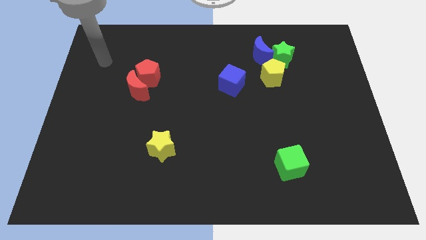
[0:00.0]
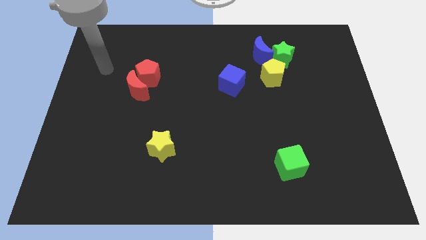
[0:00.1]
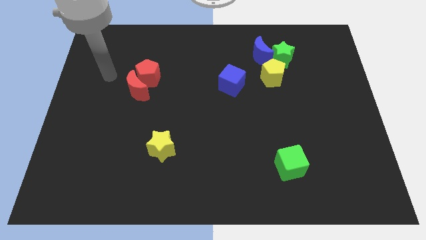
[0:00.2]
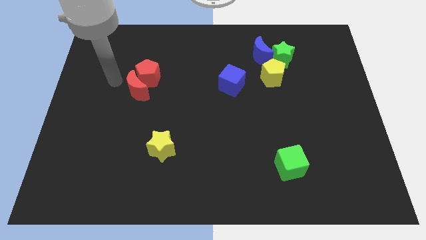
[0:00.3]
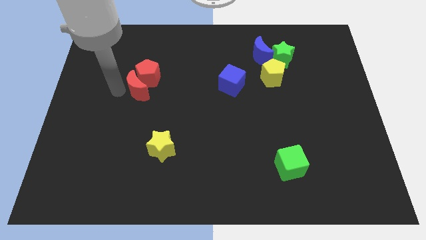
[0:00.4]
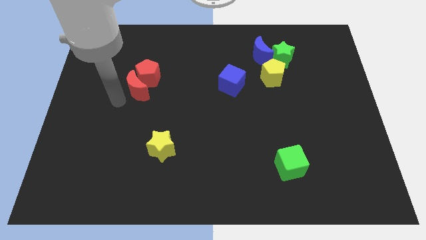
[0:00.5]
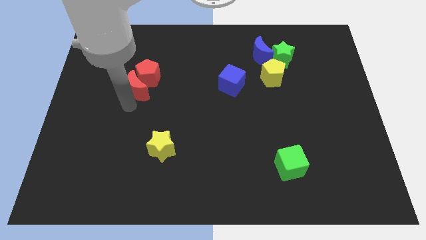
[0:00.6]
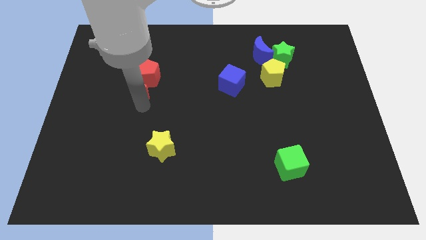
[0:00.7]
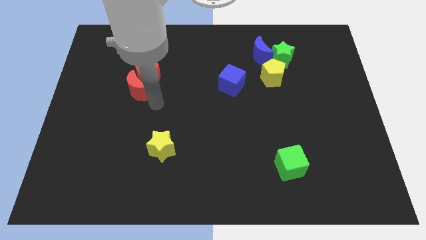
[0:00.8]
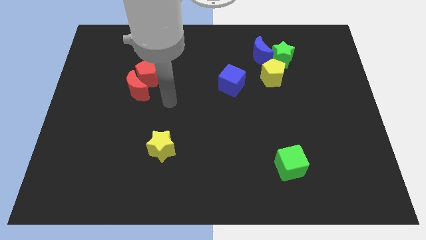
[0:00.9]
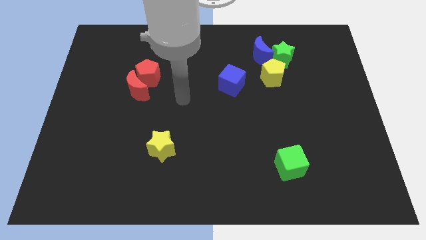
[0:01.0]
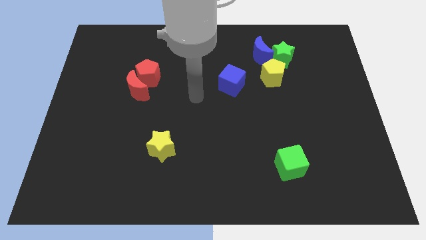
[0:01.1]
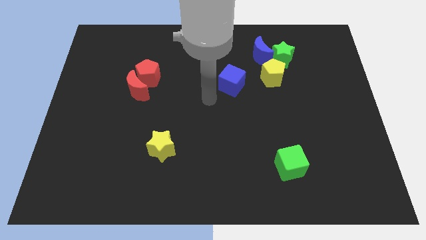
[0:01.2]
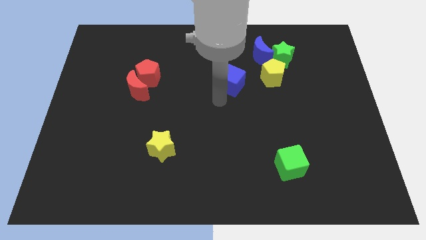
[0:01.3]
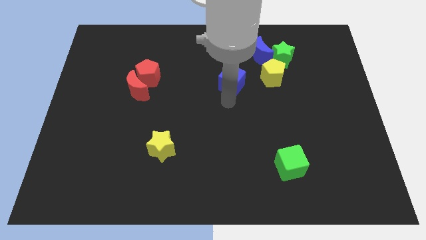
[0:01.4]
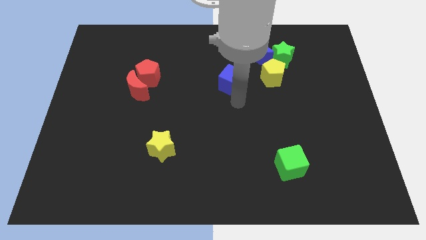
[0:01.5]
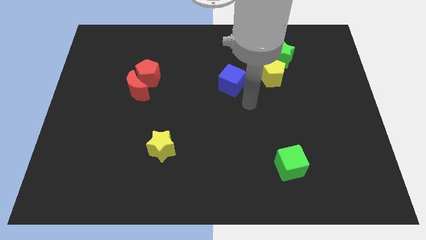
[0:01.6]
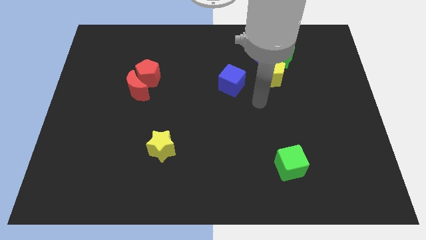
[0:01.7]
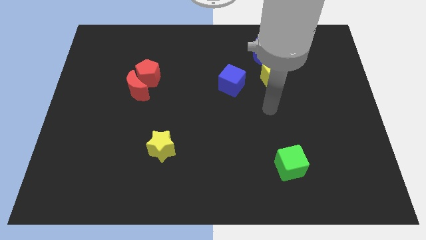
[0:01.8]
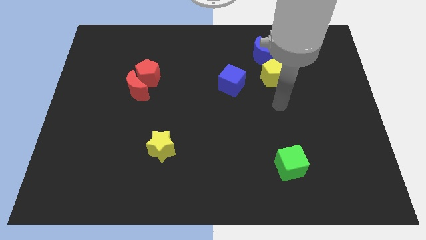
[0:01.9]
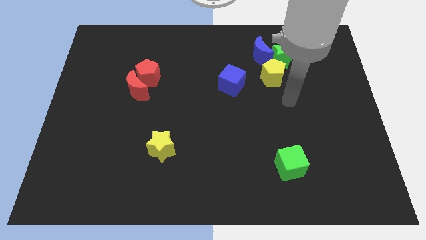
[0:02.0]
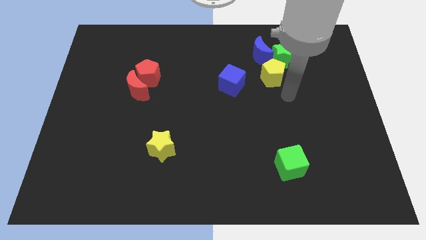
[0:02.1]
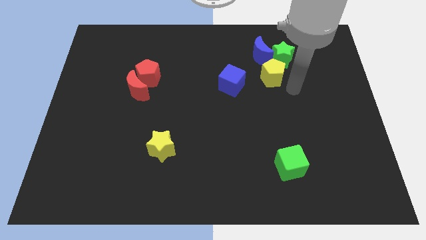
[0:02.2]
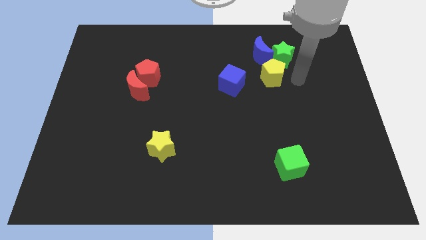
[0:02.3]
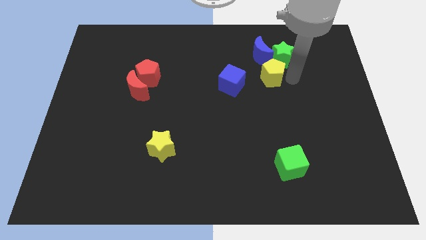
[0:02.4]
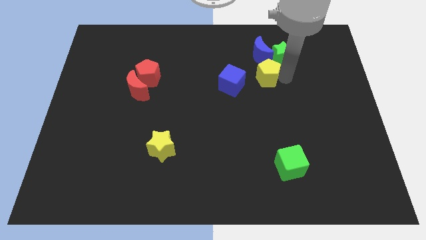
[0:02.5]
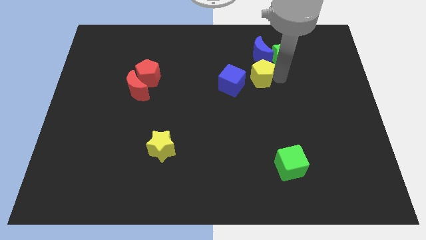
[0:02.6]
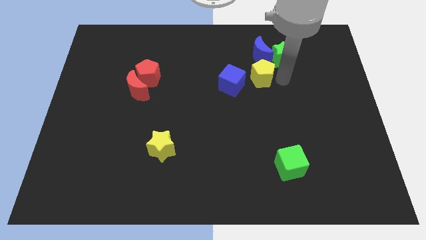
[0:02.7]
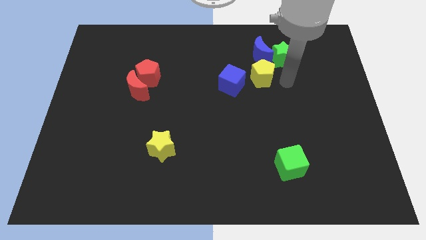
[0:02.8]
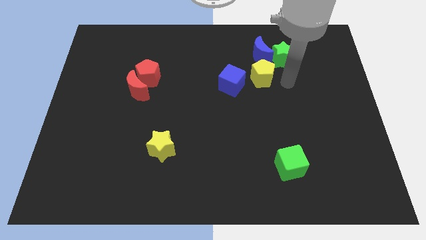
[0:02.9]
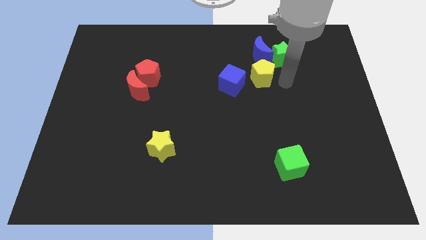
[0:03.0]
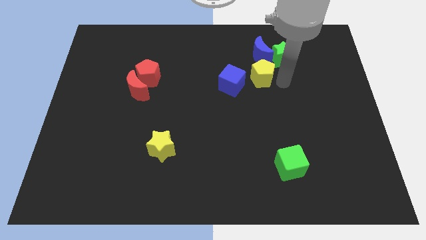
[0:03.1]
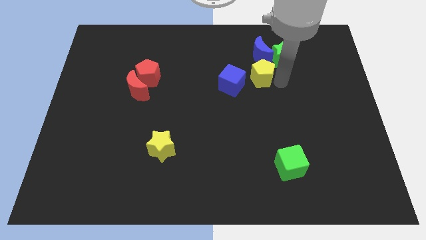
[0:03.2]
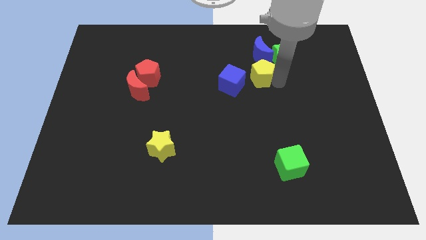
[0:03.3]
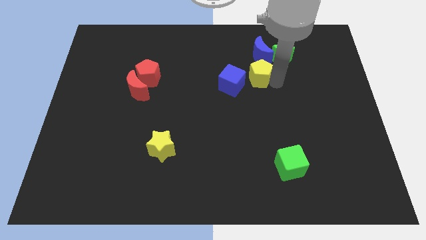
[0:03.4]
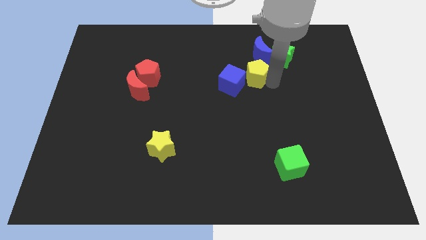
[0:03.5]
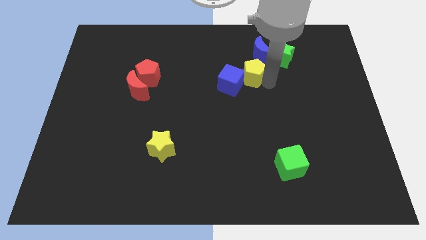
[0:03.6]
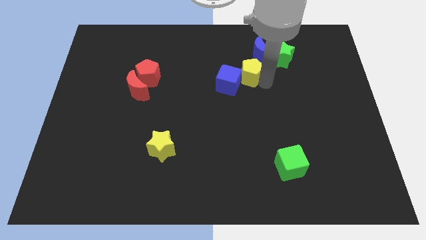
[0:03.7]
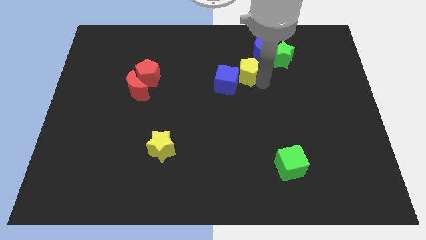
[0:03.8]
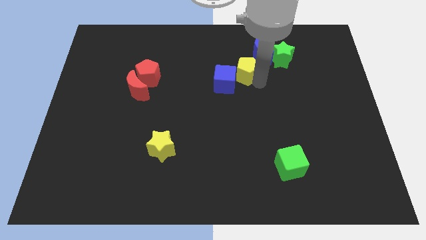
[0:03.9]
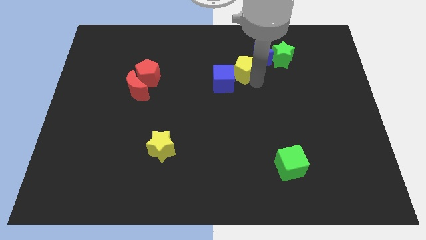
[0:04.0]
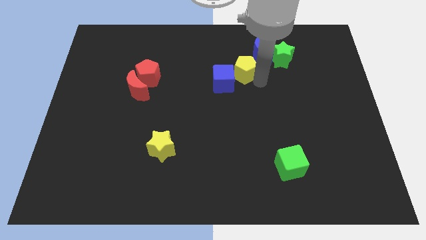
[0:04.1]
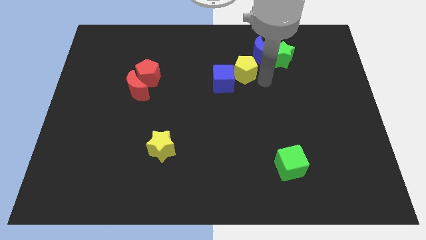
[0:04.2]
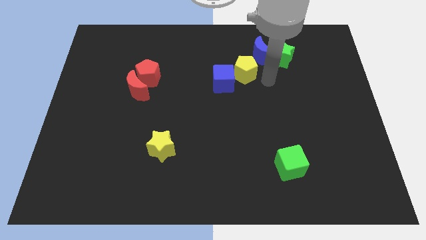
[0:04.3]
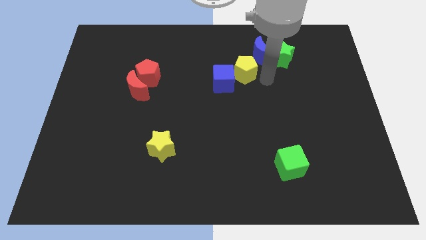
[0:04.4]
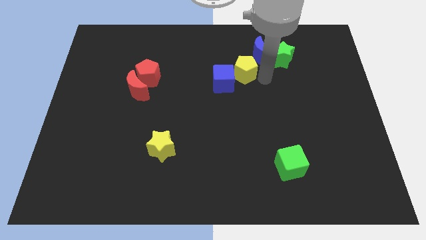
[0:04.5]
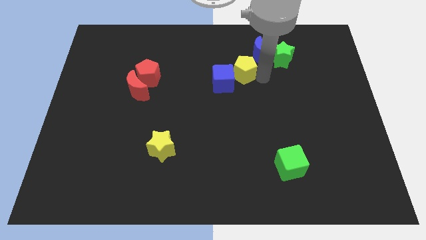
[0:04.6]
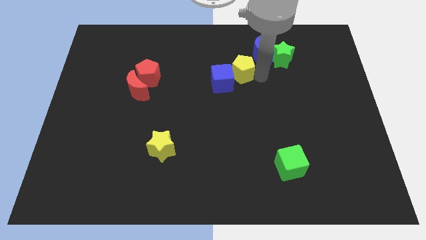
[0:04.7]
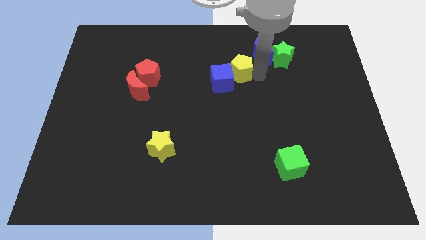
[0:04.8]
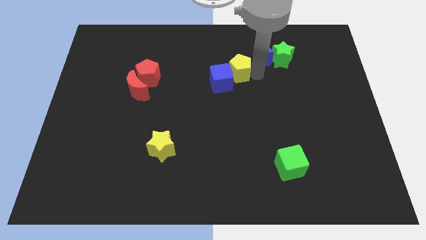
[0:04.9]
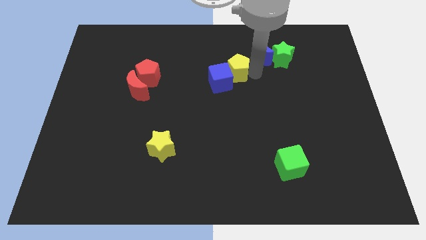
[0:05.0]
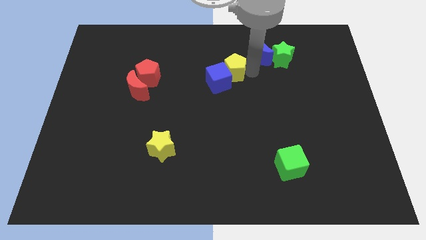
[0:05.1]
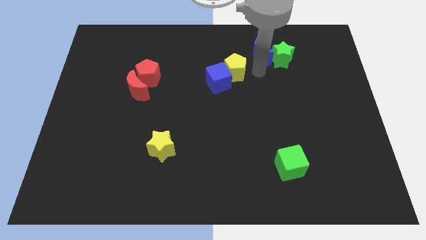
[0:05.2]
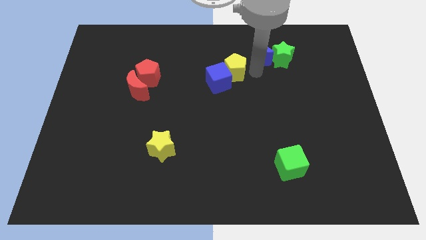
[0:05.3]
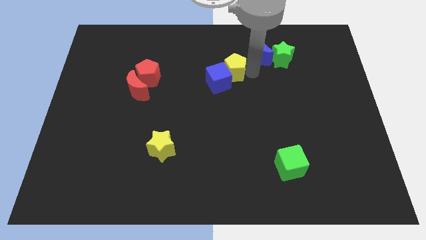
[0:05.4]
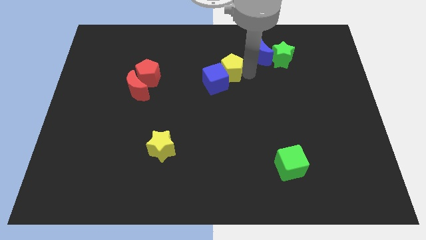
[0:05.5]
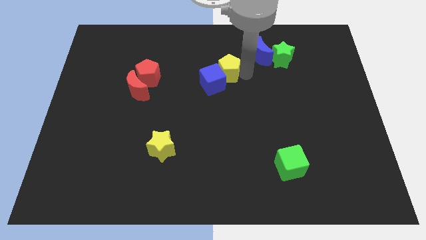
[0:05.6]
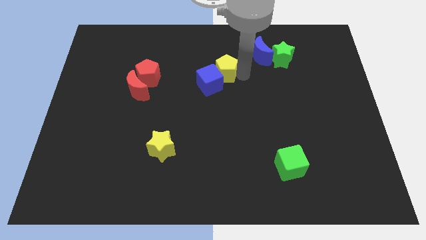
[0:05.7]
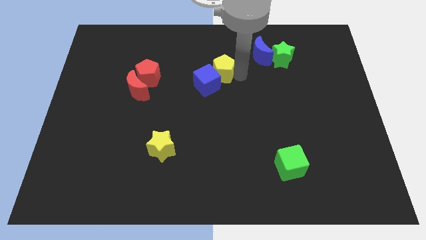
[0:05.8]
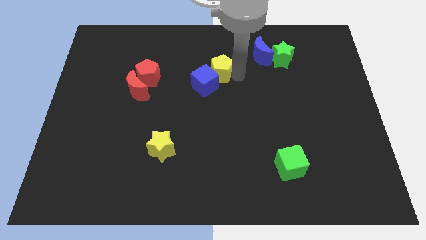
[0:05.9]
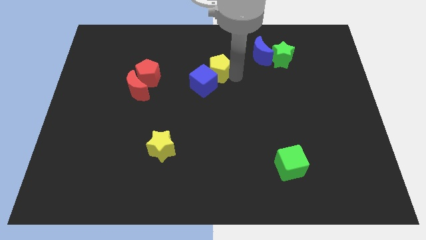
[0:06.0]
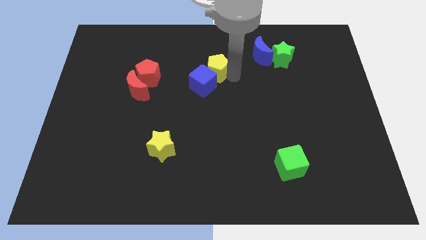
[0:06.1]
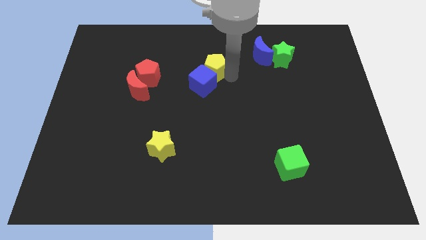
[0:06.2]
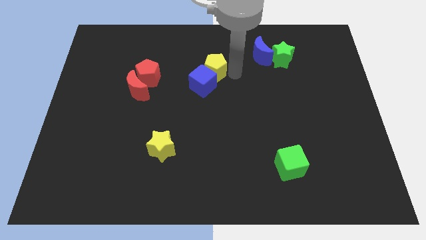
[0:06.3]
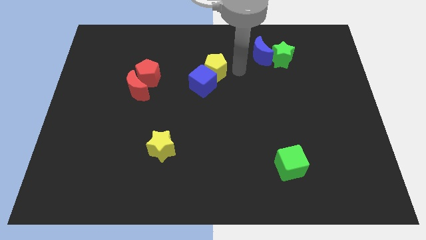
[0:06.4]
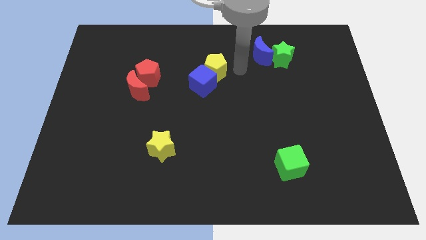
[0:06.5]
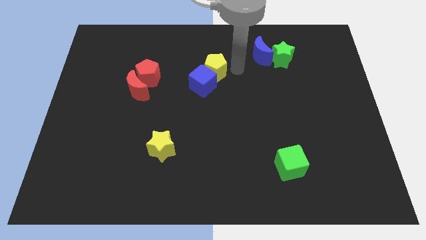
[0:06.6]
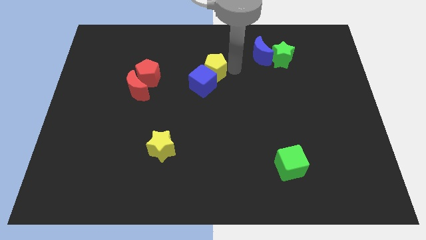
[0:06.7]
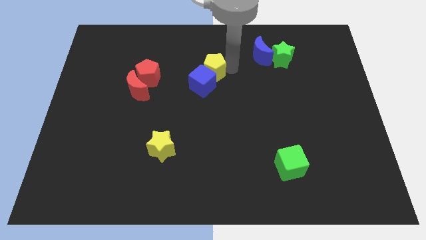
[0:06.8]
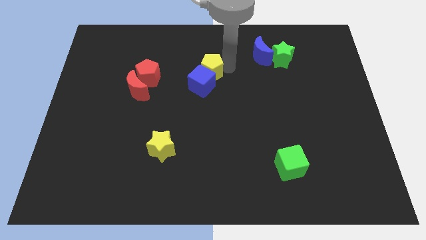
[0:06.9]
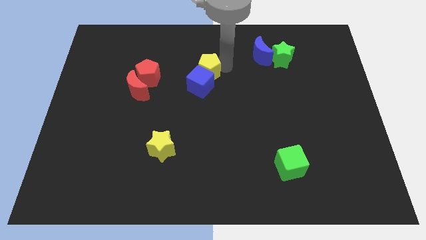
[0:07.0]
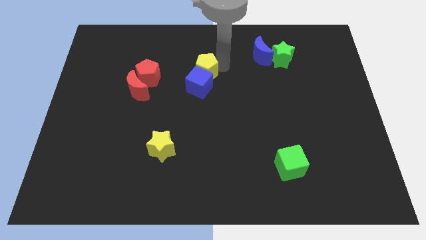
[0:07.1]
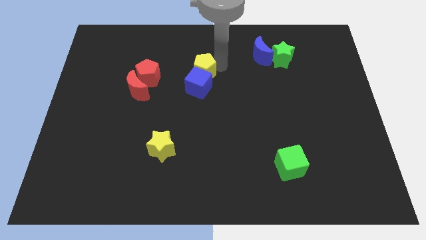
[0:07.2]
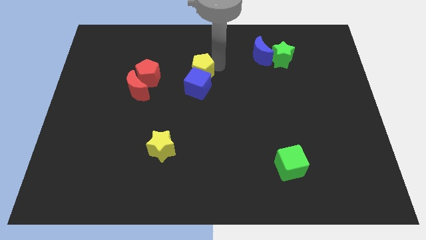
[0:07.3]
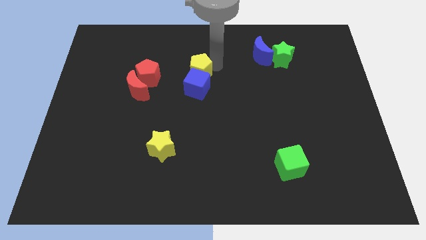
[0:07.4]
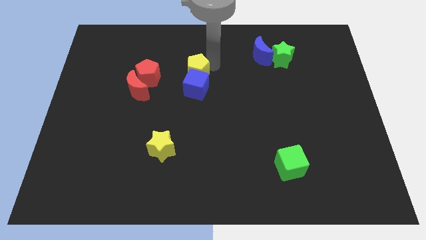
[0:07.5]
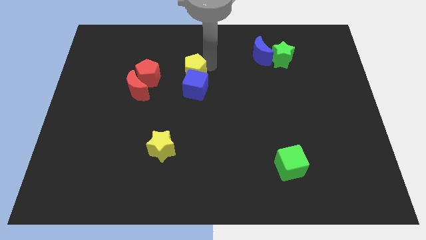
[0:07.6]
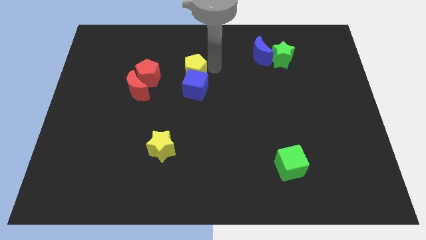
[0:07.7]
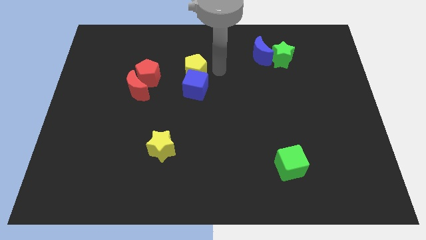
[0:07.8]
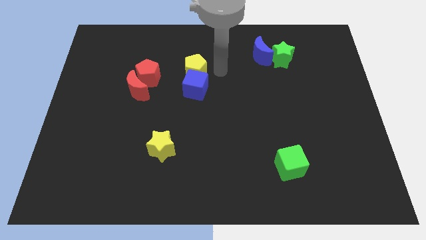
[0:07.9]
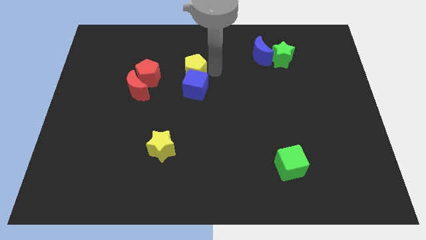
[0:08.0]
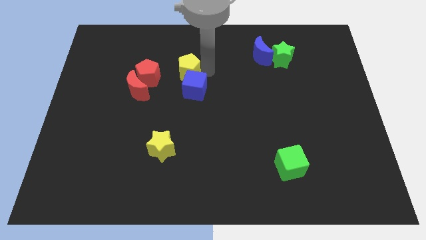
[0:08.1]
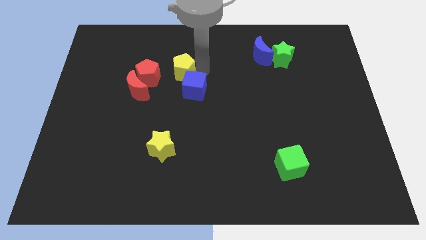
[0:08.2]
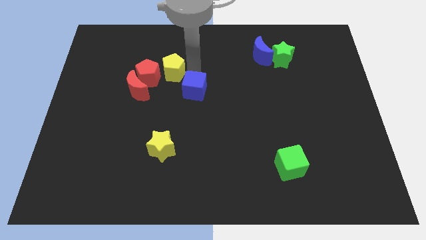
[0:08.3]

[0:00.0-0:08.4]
move the yellow pentagon next to the red pentagon
